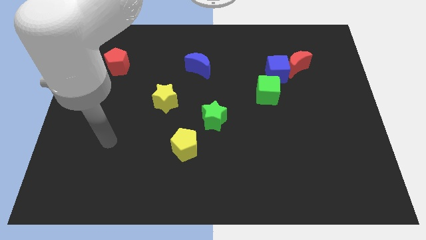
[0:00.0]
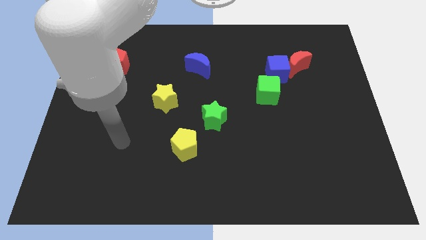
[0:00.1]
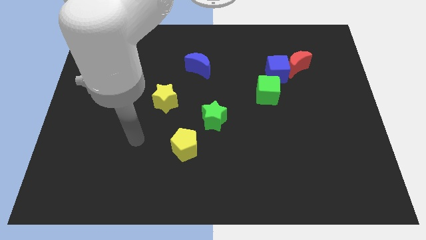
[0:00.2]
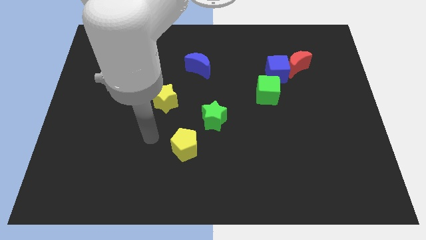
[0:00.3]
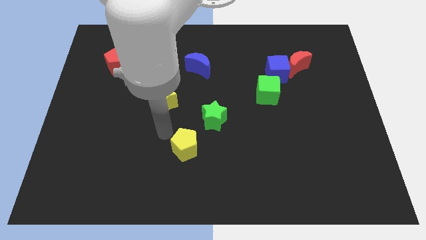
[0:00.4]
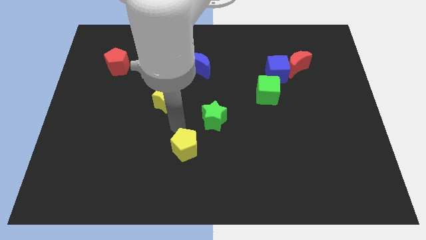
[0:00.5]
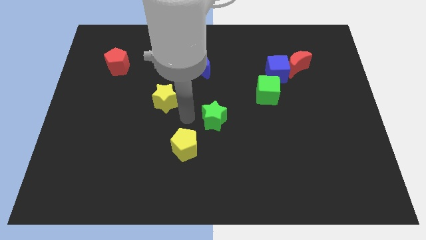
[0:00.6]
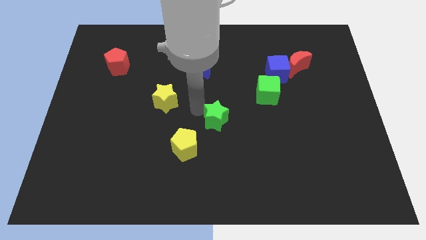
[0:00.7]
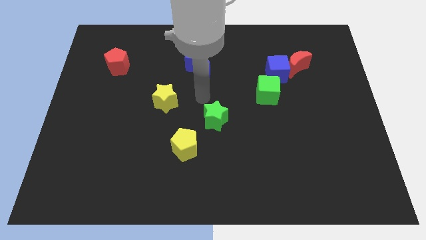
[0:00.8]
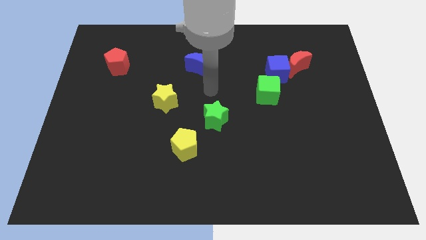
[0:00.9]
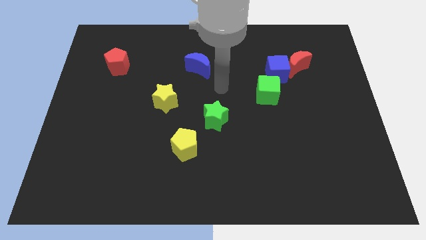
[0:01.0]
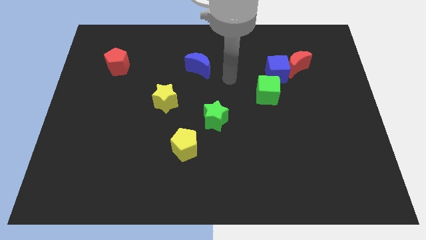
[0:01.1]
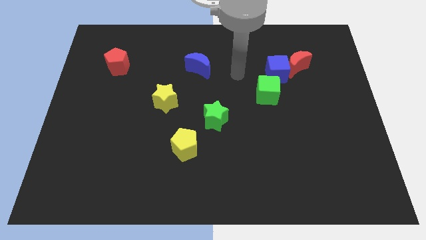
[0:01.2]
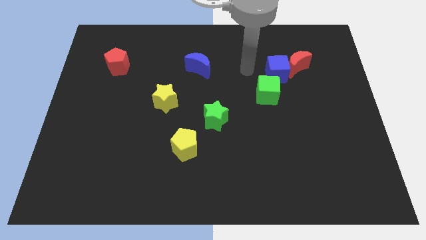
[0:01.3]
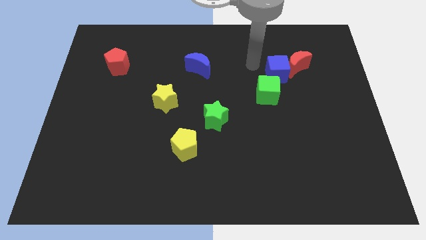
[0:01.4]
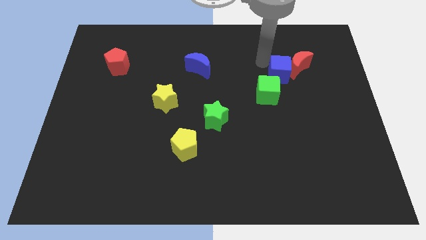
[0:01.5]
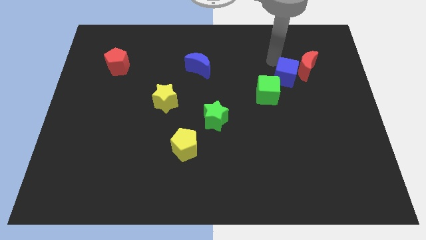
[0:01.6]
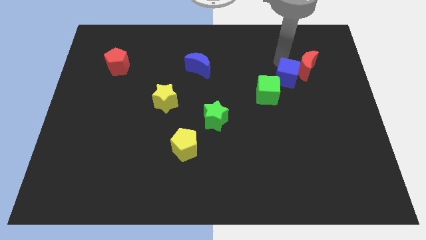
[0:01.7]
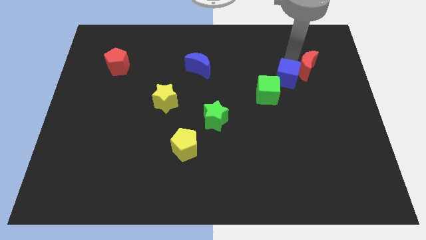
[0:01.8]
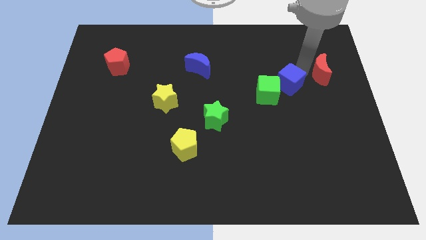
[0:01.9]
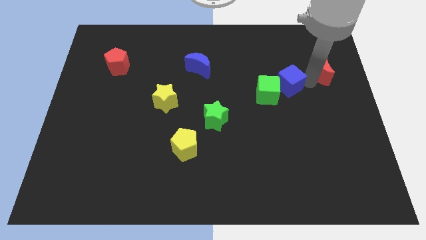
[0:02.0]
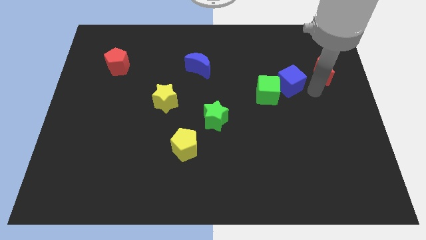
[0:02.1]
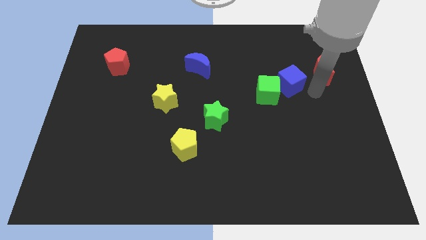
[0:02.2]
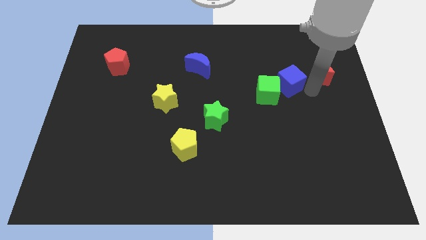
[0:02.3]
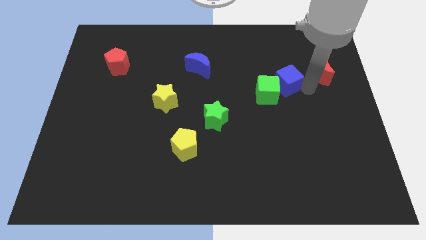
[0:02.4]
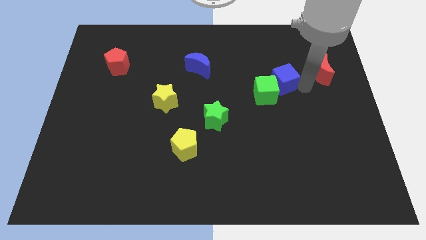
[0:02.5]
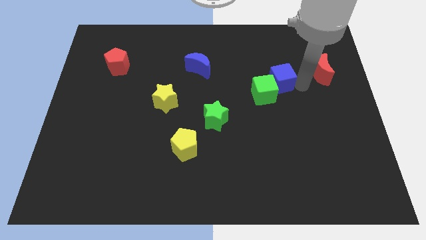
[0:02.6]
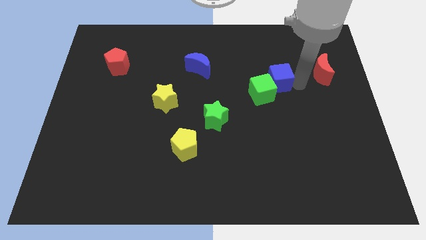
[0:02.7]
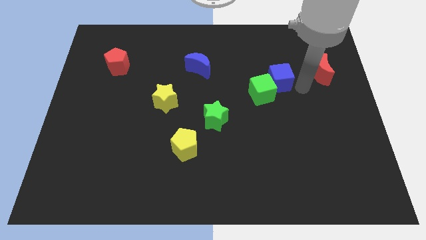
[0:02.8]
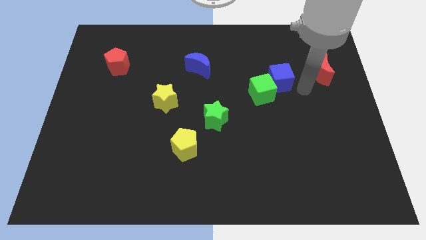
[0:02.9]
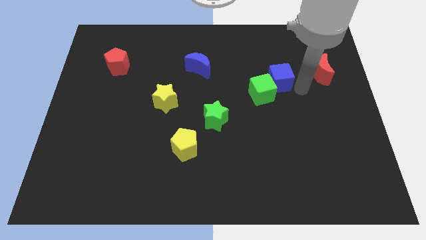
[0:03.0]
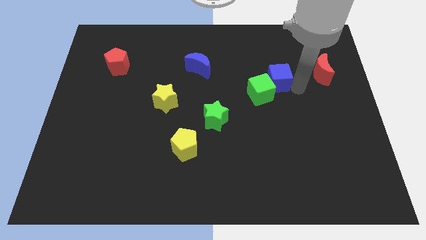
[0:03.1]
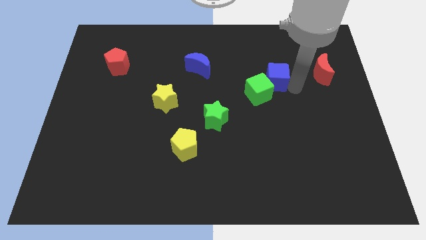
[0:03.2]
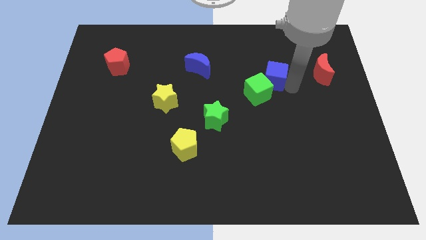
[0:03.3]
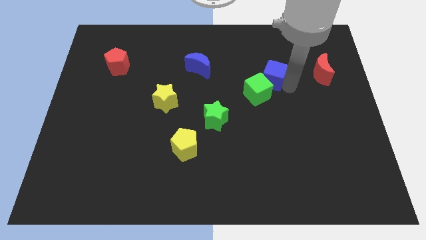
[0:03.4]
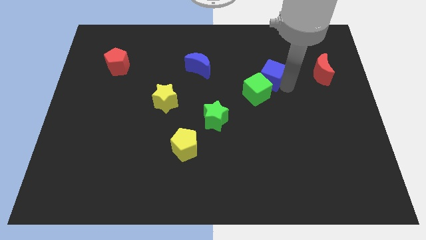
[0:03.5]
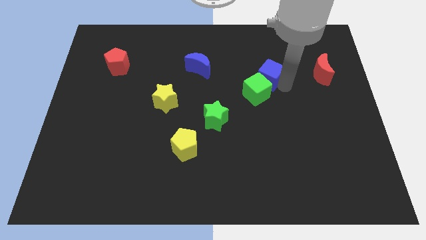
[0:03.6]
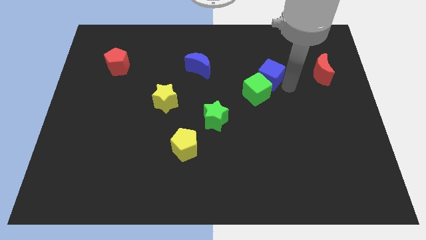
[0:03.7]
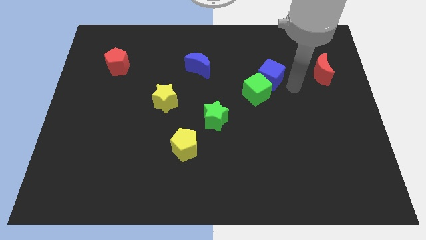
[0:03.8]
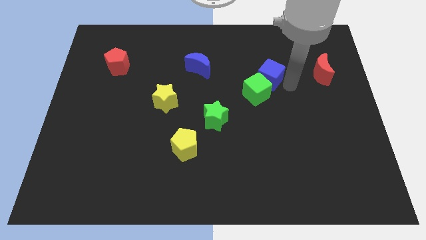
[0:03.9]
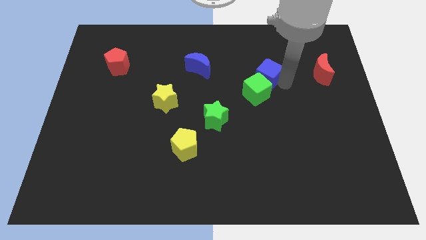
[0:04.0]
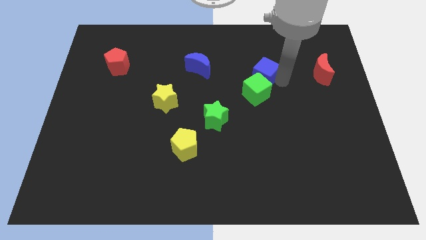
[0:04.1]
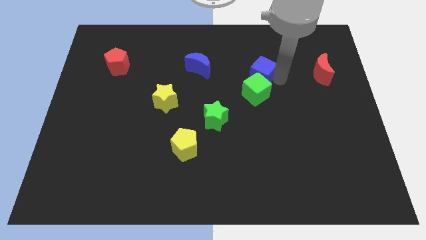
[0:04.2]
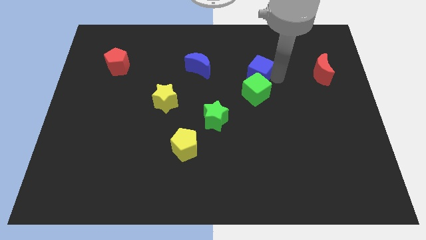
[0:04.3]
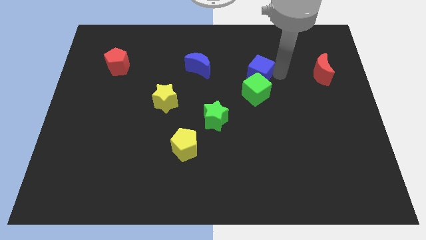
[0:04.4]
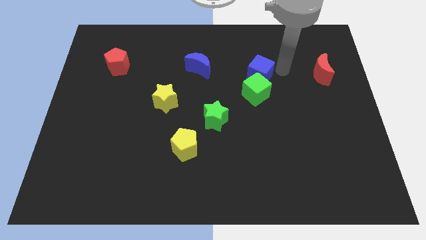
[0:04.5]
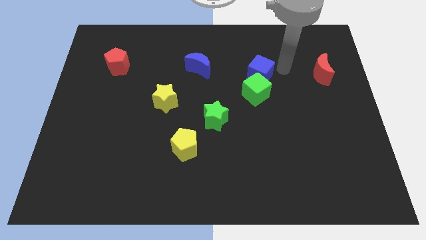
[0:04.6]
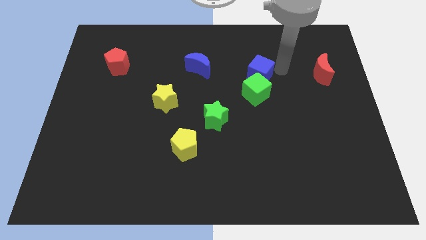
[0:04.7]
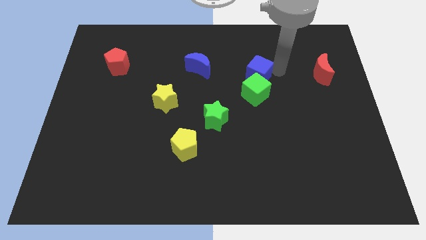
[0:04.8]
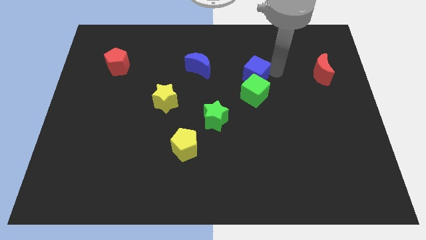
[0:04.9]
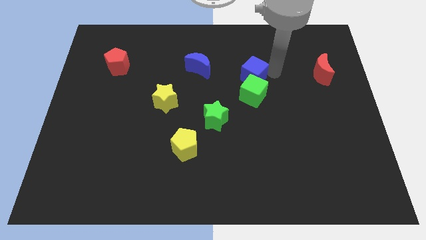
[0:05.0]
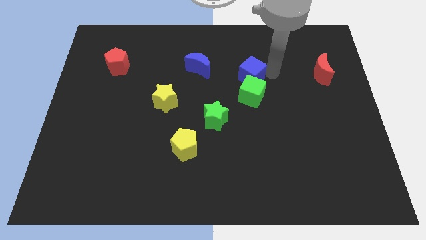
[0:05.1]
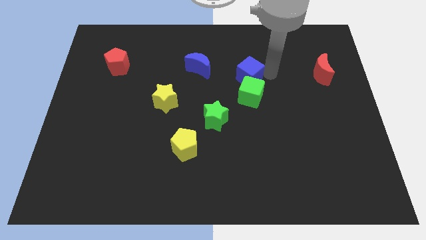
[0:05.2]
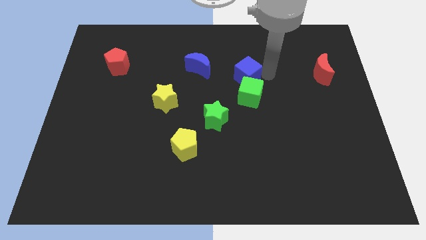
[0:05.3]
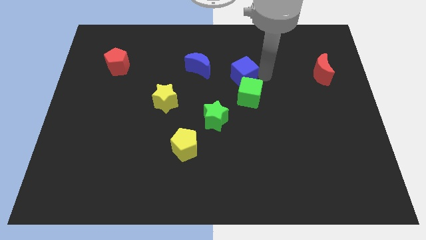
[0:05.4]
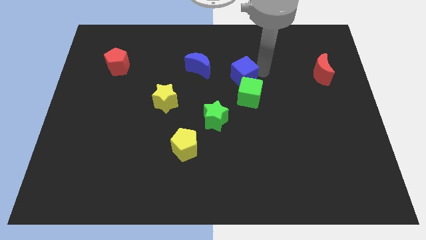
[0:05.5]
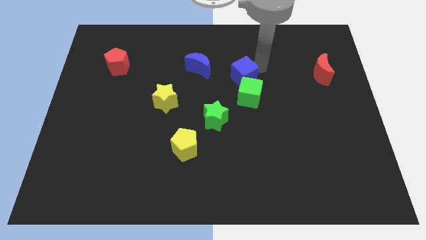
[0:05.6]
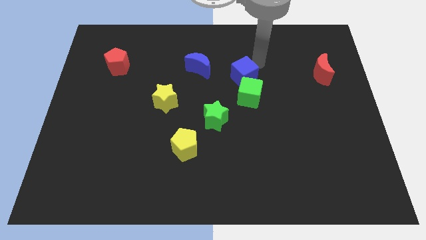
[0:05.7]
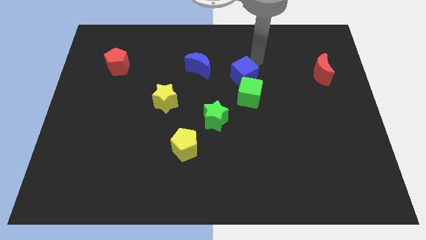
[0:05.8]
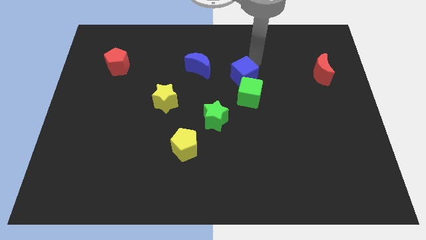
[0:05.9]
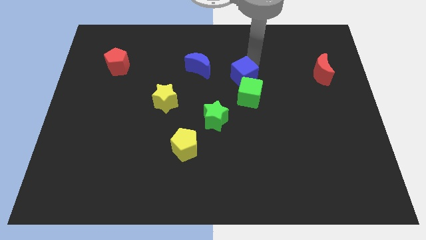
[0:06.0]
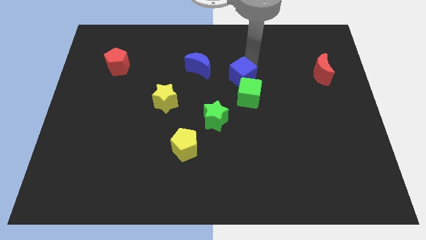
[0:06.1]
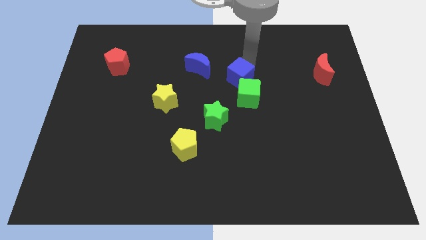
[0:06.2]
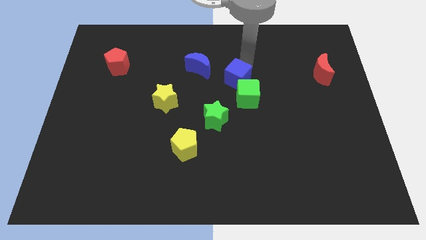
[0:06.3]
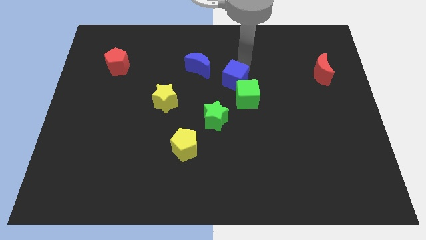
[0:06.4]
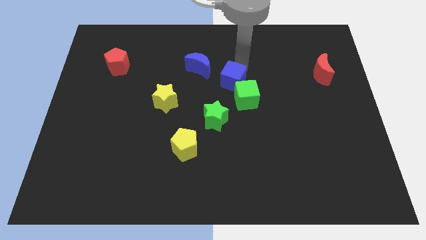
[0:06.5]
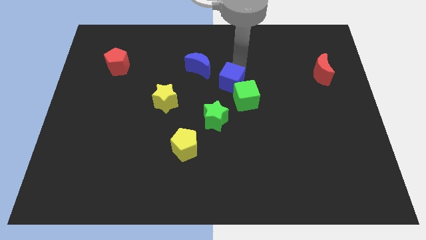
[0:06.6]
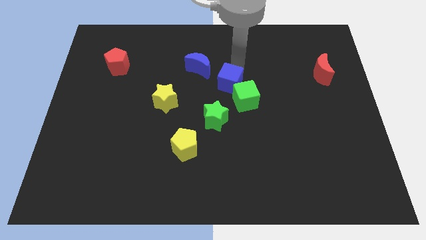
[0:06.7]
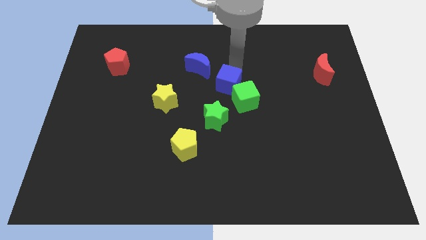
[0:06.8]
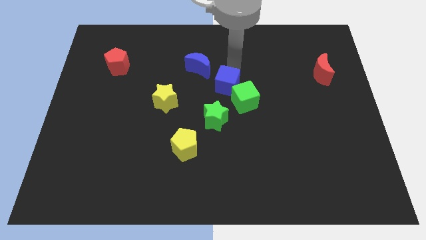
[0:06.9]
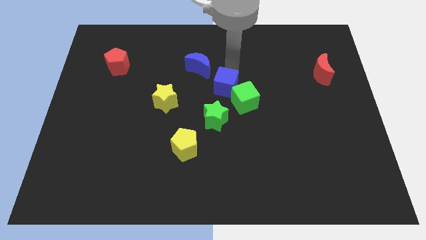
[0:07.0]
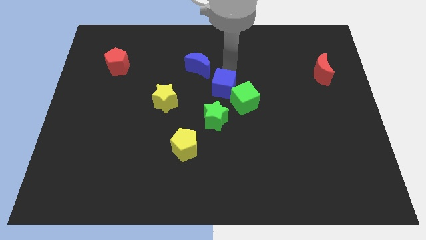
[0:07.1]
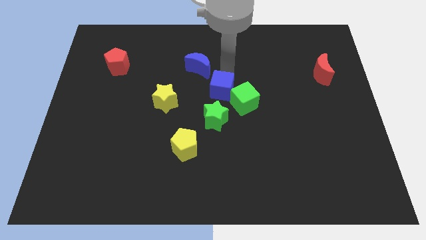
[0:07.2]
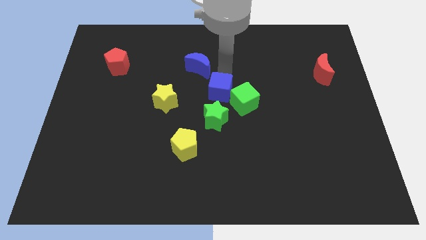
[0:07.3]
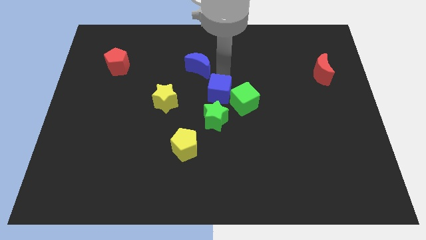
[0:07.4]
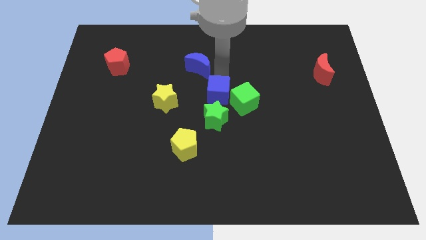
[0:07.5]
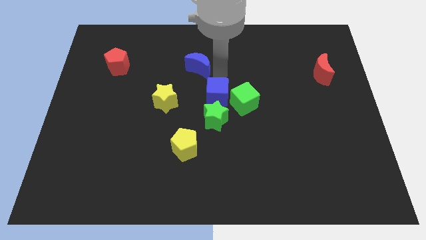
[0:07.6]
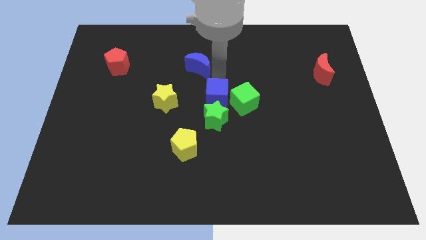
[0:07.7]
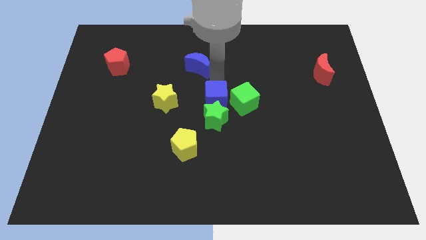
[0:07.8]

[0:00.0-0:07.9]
move the blue cube next to the green star
